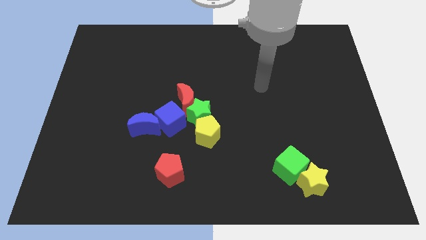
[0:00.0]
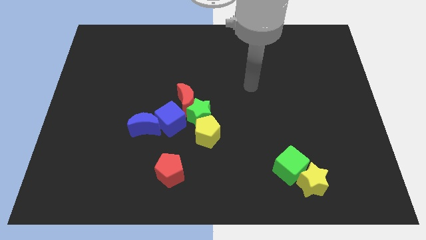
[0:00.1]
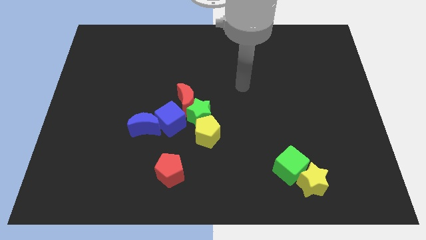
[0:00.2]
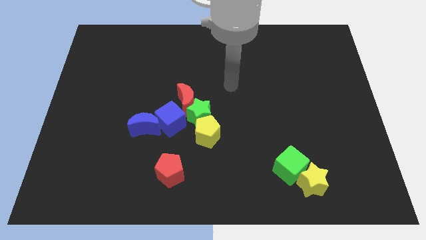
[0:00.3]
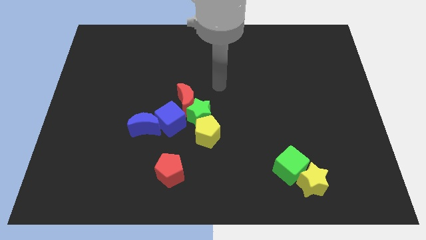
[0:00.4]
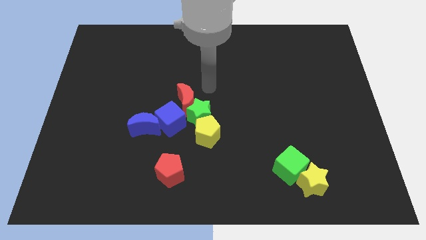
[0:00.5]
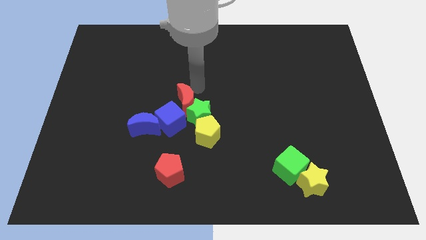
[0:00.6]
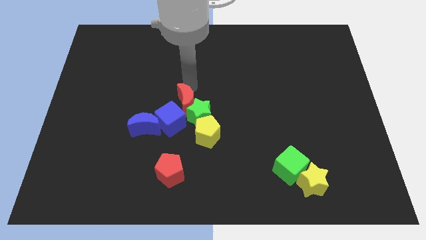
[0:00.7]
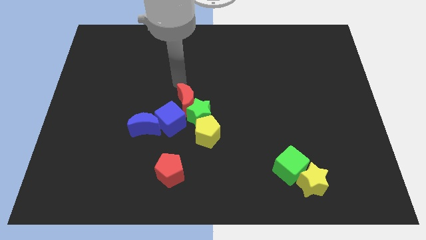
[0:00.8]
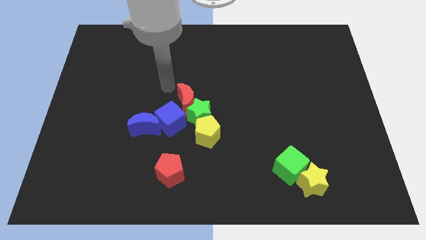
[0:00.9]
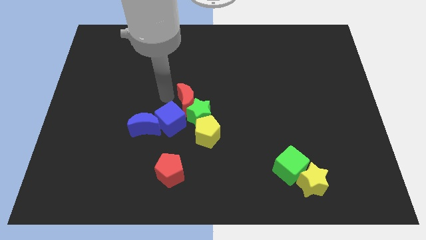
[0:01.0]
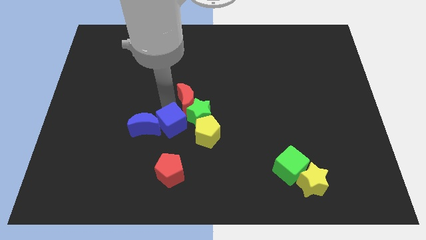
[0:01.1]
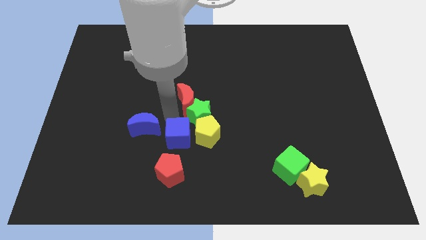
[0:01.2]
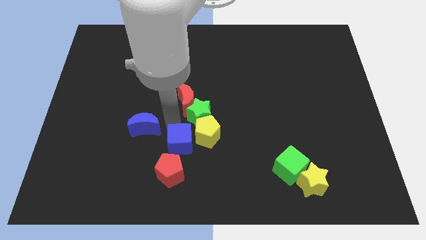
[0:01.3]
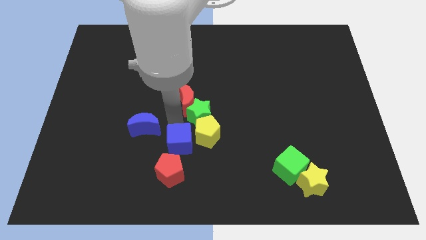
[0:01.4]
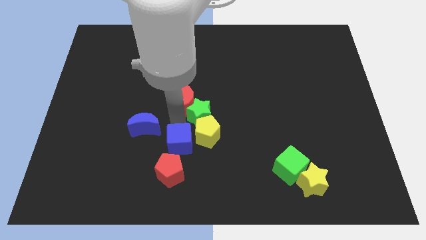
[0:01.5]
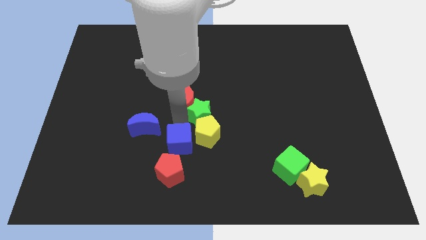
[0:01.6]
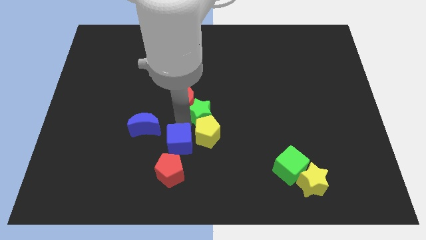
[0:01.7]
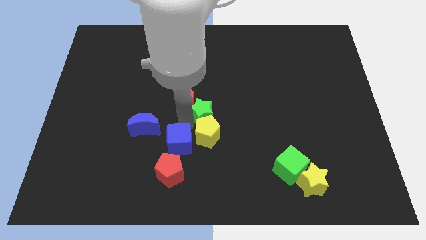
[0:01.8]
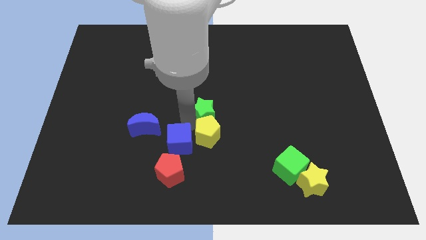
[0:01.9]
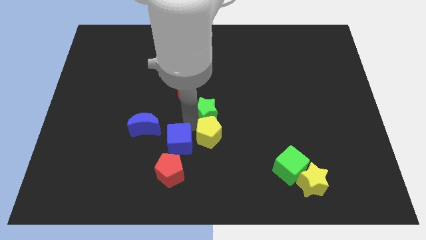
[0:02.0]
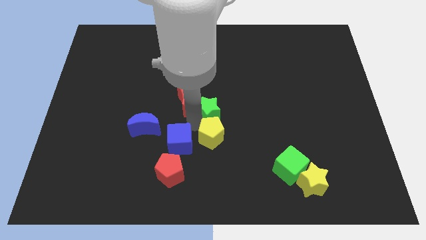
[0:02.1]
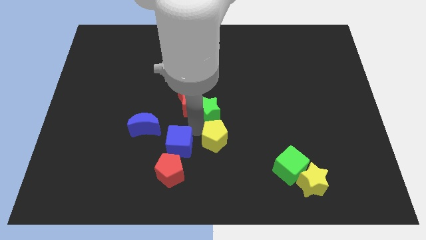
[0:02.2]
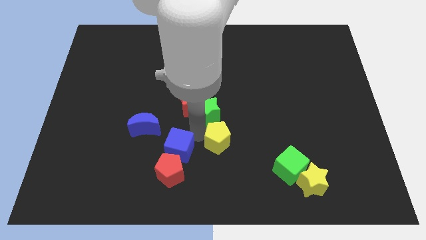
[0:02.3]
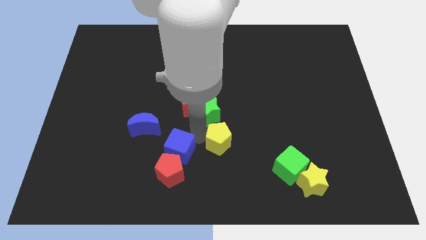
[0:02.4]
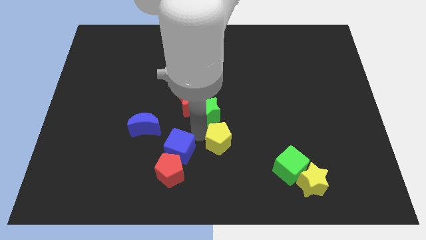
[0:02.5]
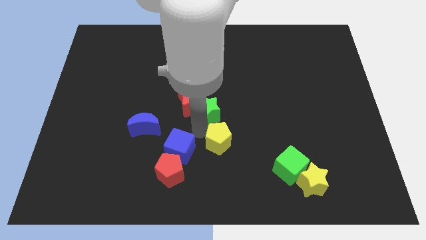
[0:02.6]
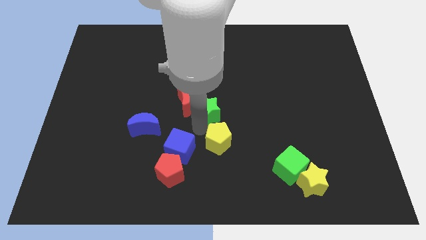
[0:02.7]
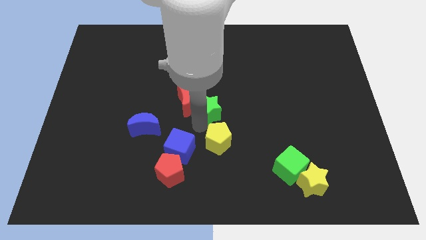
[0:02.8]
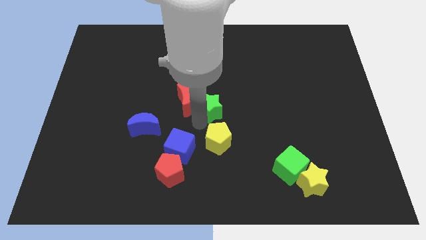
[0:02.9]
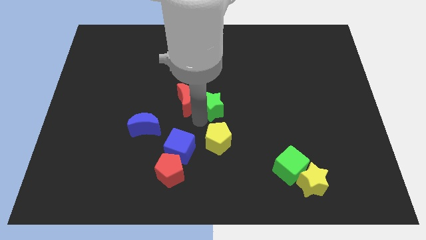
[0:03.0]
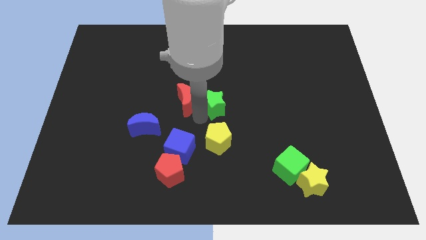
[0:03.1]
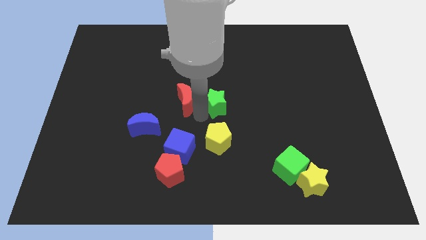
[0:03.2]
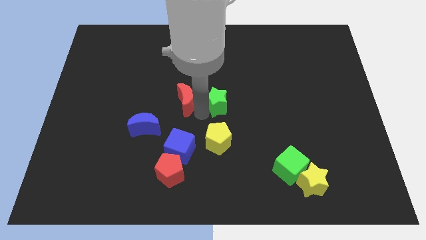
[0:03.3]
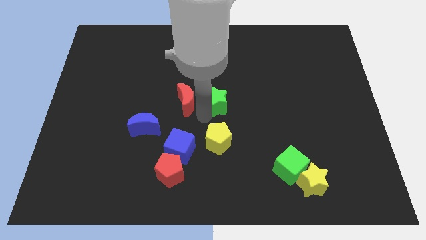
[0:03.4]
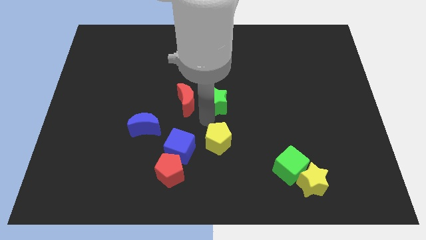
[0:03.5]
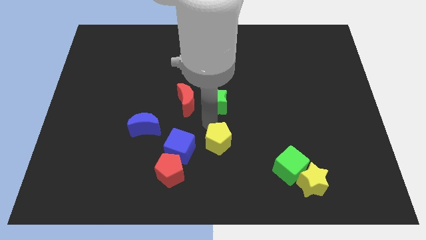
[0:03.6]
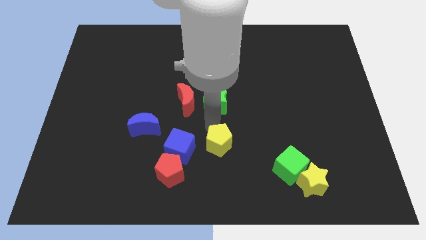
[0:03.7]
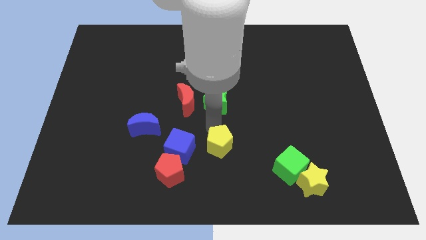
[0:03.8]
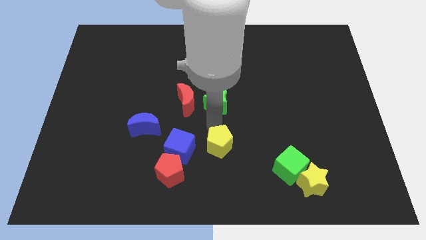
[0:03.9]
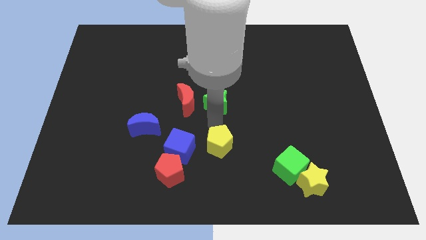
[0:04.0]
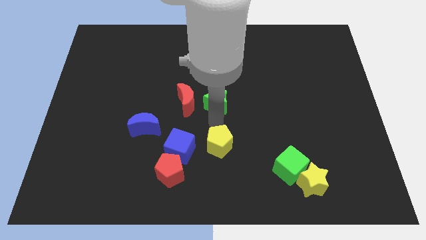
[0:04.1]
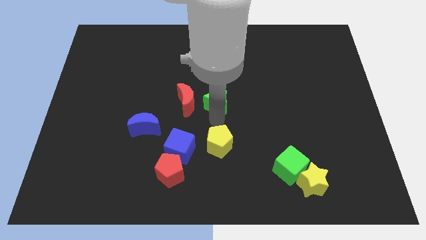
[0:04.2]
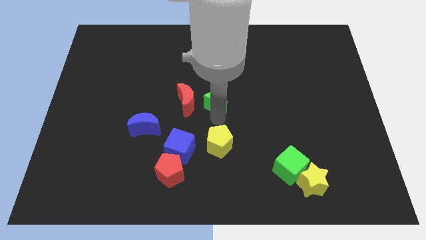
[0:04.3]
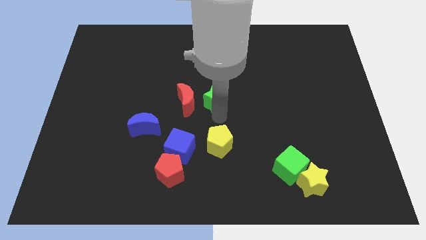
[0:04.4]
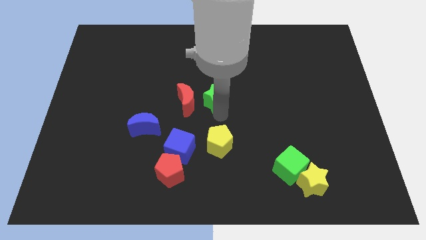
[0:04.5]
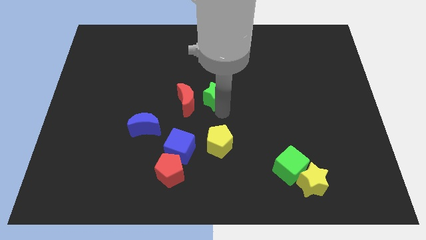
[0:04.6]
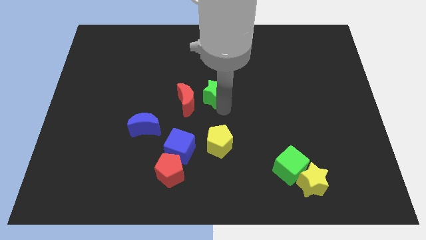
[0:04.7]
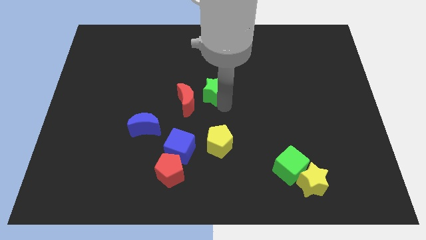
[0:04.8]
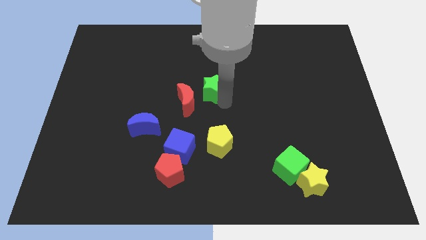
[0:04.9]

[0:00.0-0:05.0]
push the green star a bit upwards

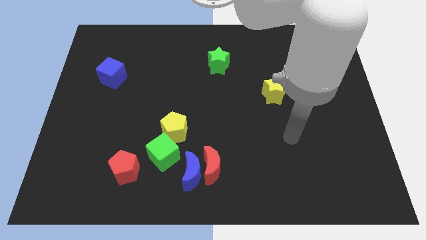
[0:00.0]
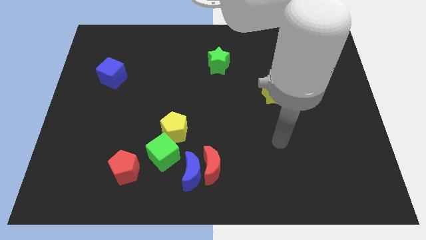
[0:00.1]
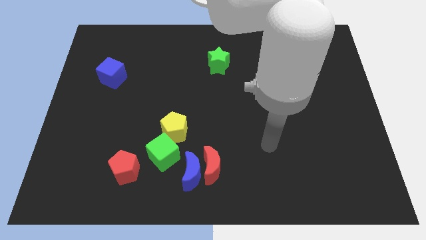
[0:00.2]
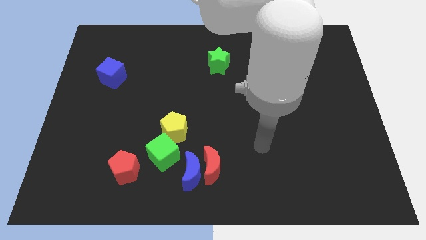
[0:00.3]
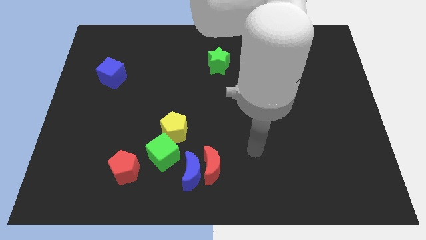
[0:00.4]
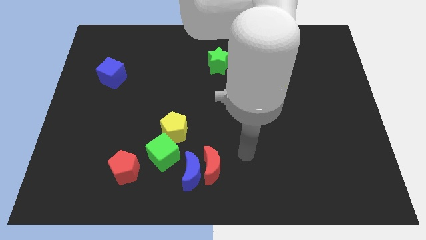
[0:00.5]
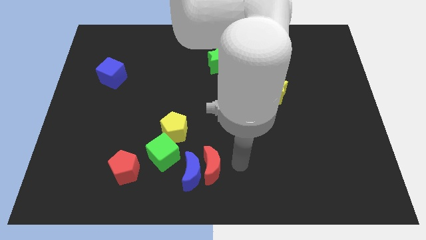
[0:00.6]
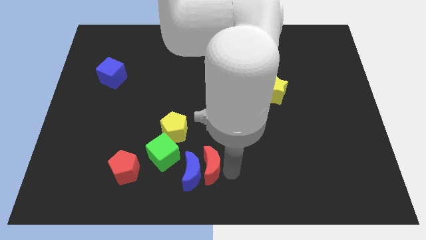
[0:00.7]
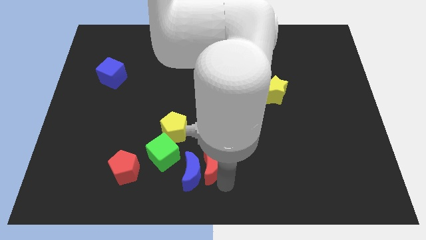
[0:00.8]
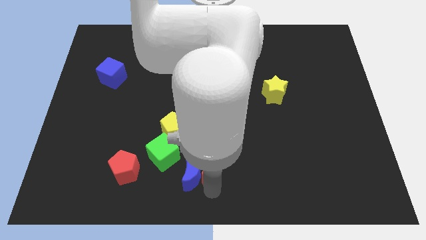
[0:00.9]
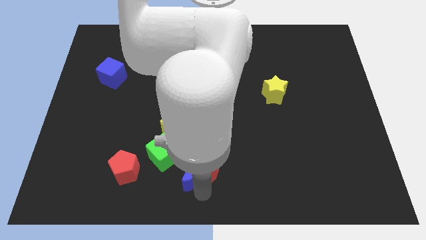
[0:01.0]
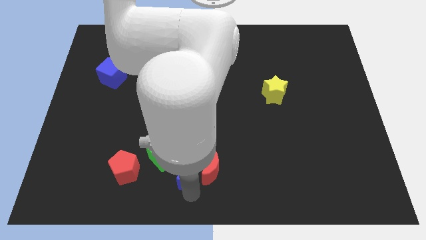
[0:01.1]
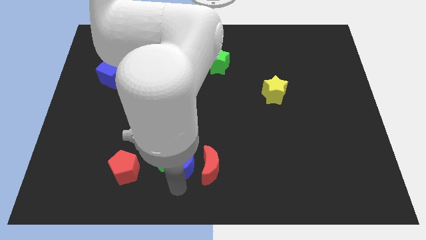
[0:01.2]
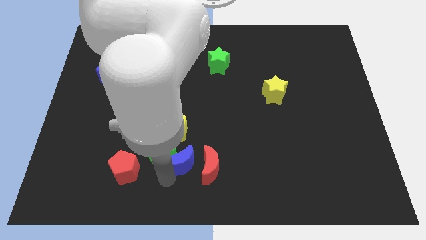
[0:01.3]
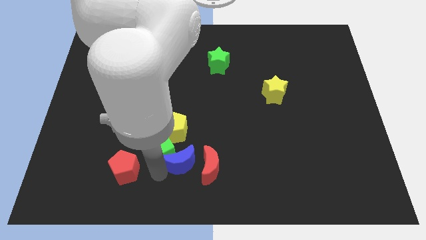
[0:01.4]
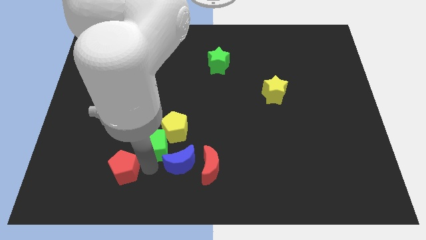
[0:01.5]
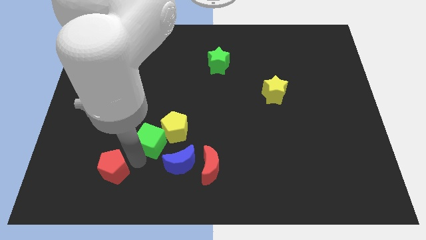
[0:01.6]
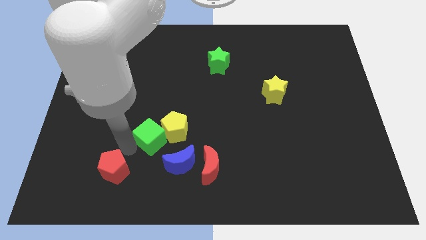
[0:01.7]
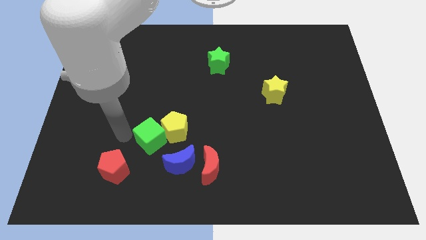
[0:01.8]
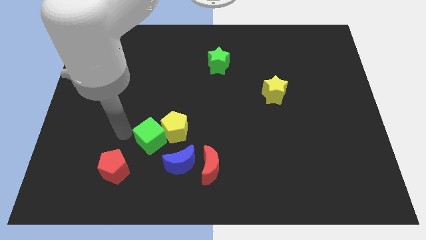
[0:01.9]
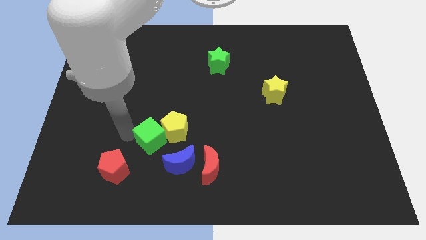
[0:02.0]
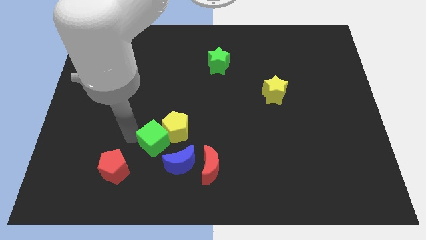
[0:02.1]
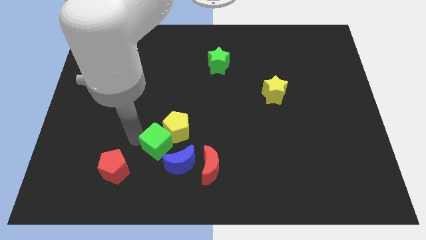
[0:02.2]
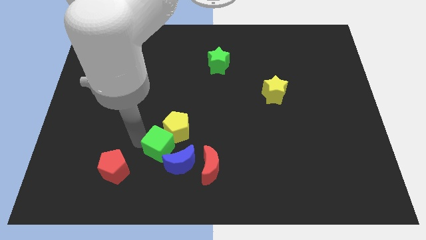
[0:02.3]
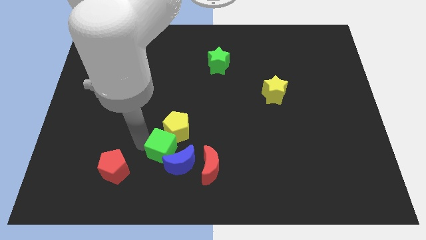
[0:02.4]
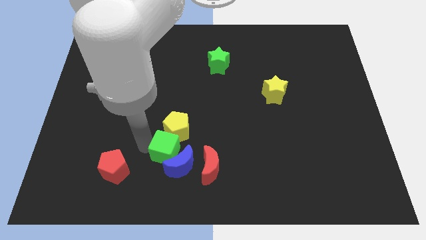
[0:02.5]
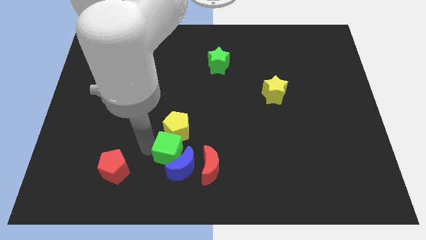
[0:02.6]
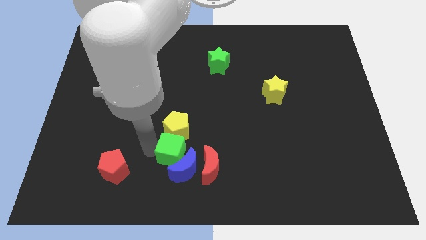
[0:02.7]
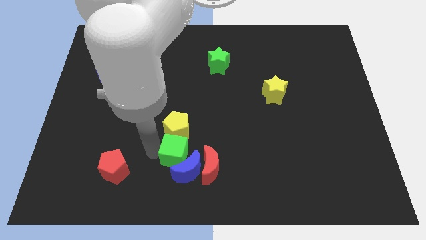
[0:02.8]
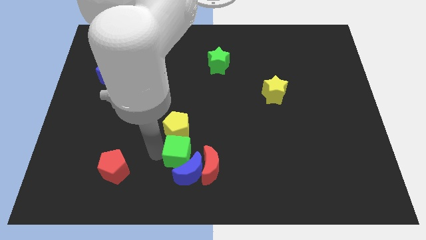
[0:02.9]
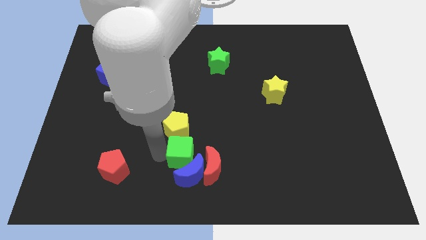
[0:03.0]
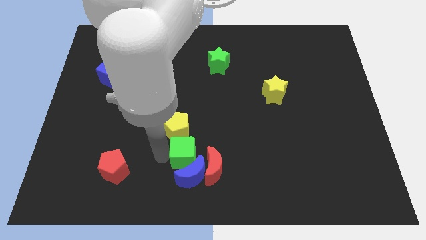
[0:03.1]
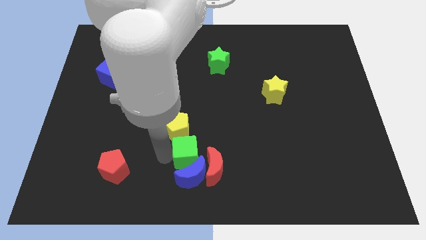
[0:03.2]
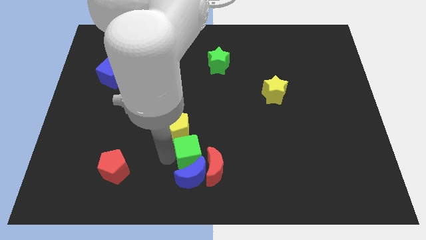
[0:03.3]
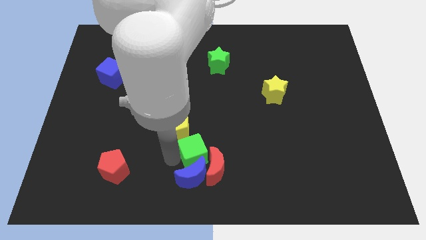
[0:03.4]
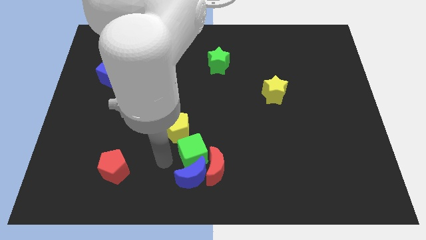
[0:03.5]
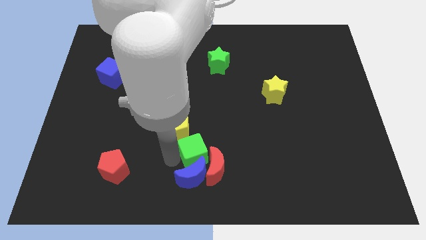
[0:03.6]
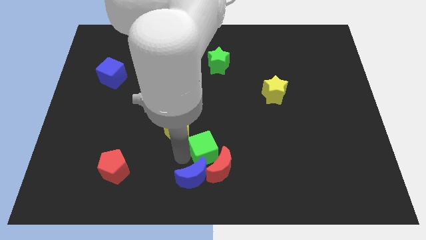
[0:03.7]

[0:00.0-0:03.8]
slightly slide the green cube right
